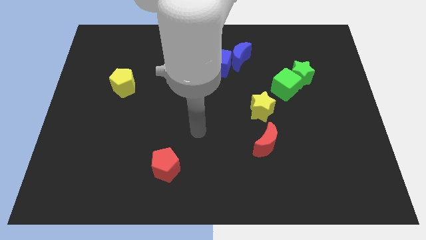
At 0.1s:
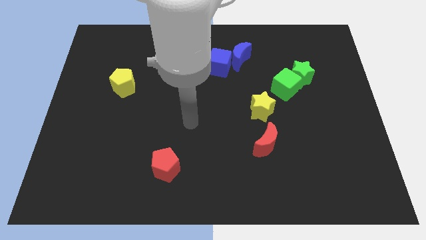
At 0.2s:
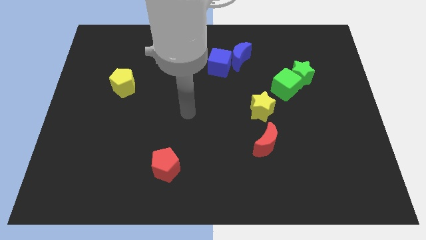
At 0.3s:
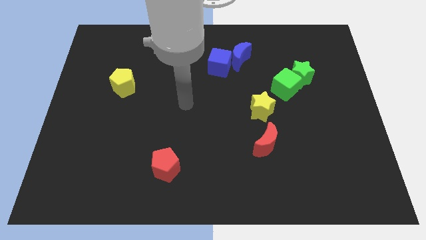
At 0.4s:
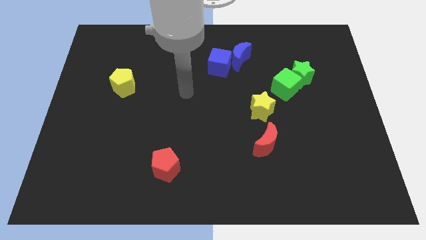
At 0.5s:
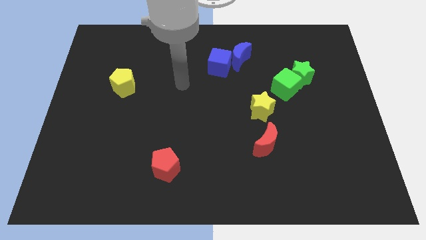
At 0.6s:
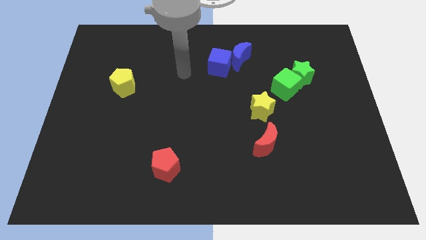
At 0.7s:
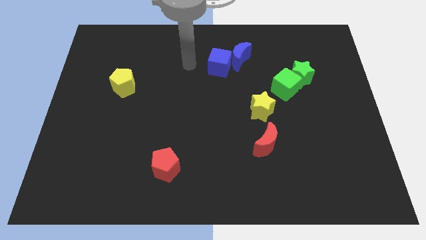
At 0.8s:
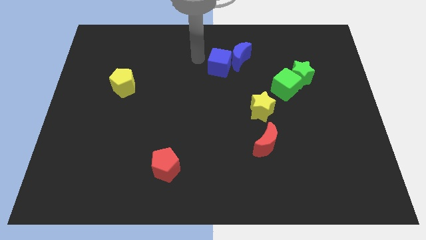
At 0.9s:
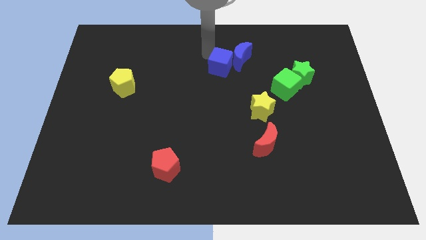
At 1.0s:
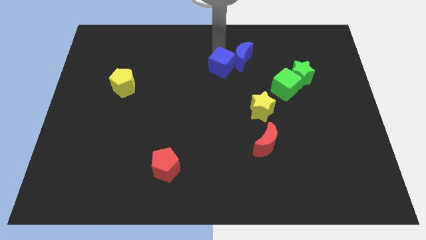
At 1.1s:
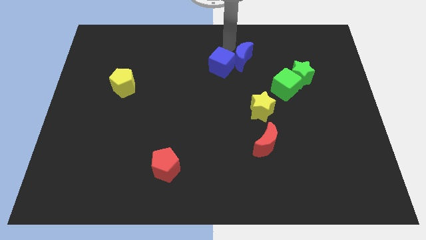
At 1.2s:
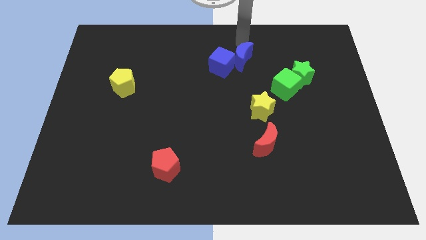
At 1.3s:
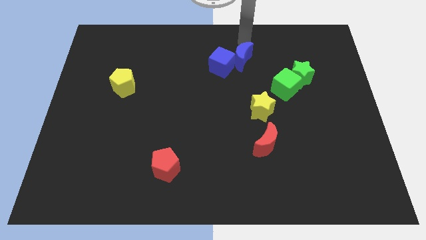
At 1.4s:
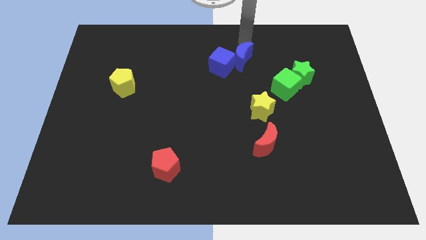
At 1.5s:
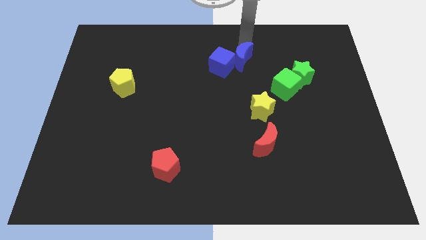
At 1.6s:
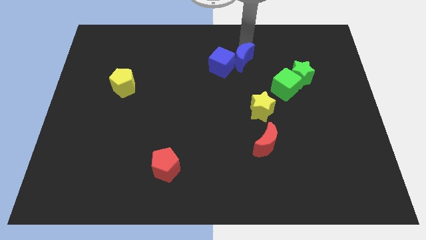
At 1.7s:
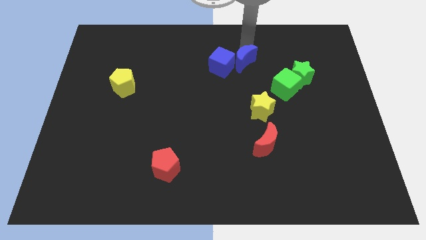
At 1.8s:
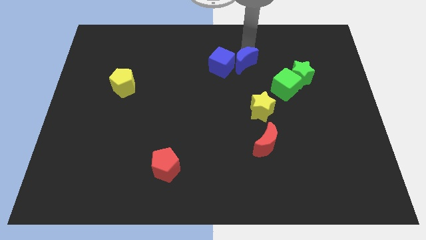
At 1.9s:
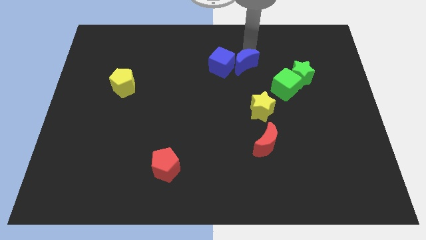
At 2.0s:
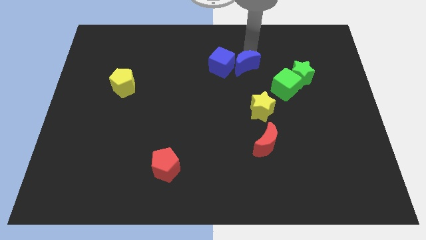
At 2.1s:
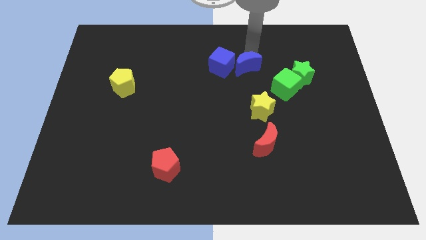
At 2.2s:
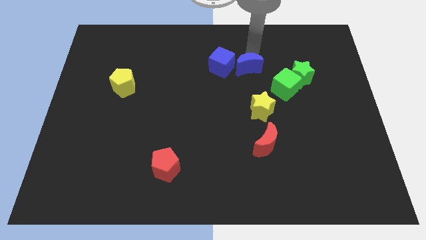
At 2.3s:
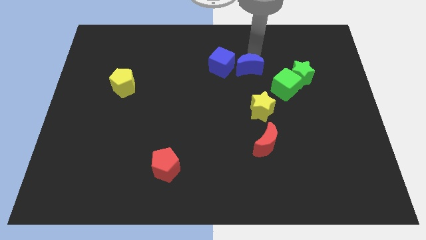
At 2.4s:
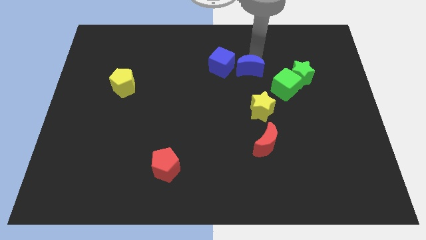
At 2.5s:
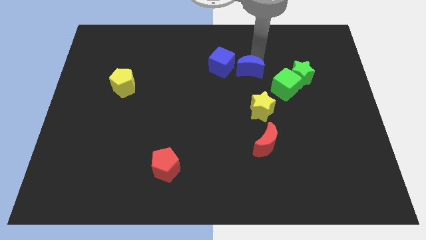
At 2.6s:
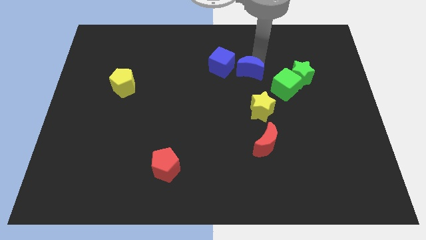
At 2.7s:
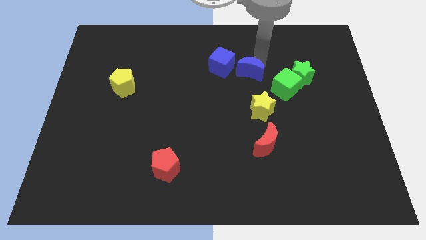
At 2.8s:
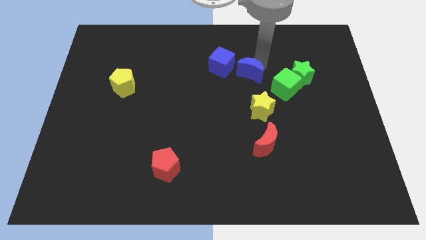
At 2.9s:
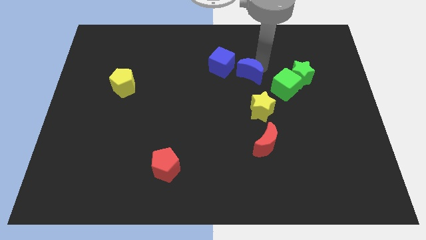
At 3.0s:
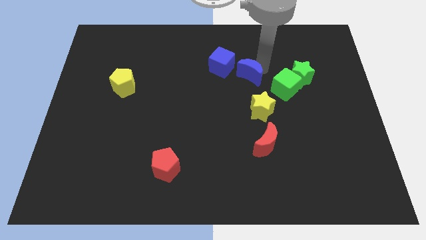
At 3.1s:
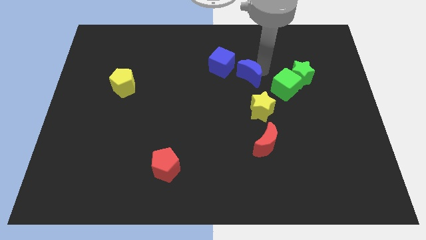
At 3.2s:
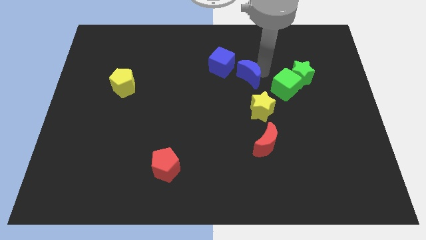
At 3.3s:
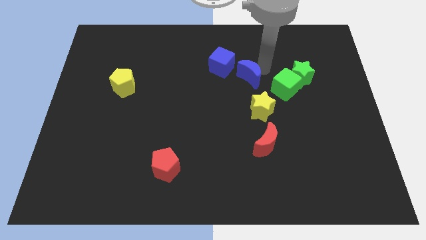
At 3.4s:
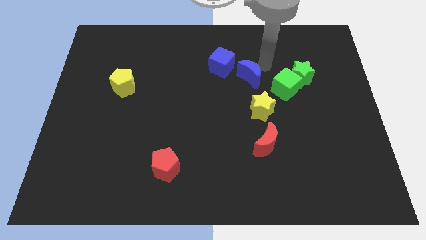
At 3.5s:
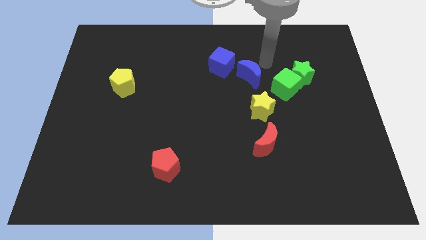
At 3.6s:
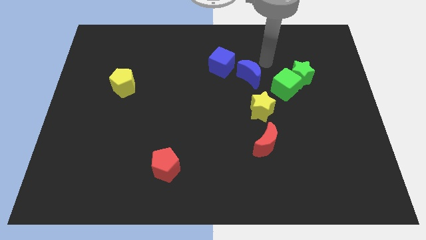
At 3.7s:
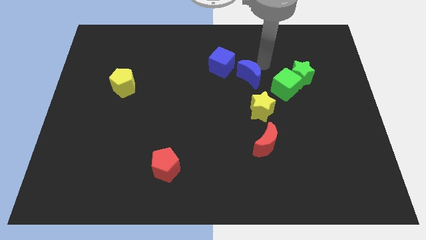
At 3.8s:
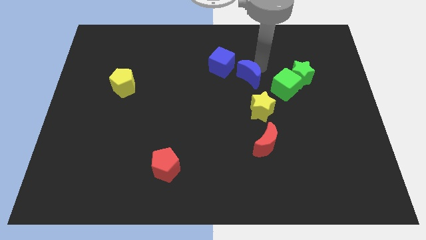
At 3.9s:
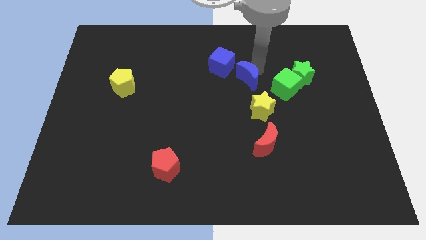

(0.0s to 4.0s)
move the blue moon downwards somewhat

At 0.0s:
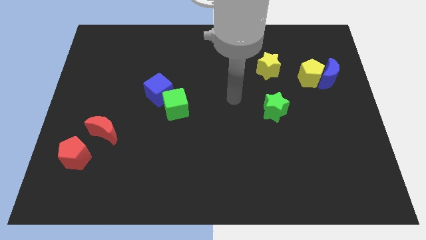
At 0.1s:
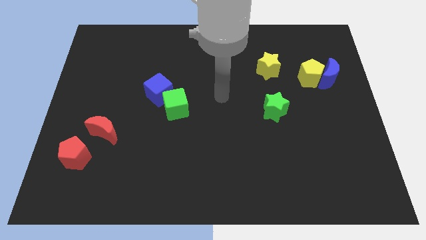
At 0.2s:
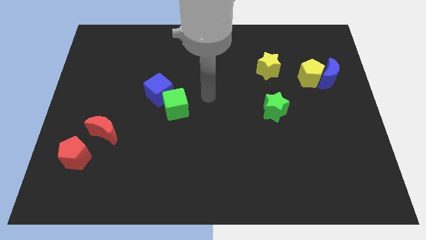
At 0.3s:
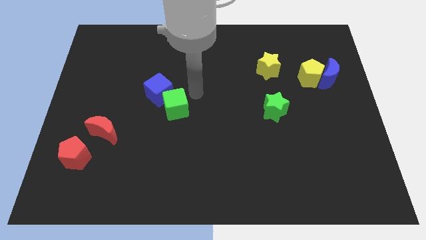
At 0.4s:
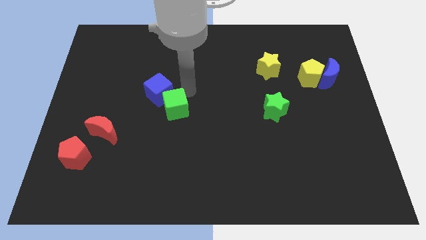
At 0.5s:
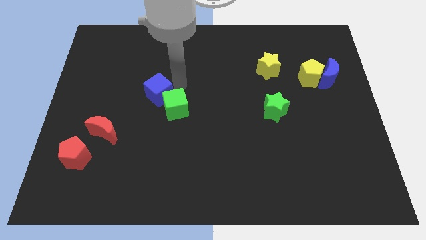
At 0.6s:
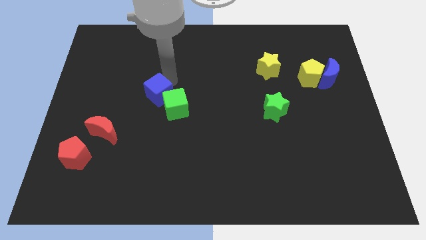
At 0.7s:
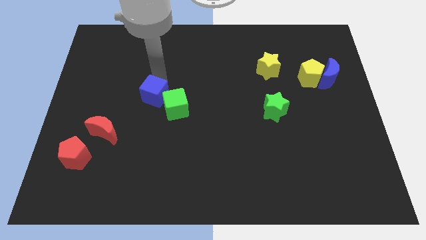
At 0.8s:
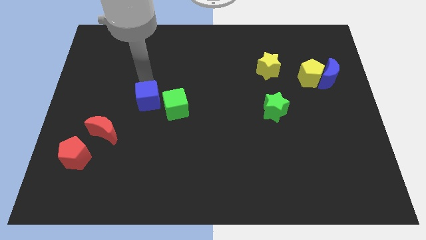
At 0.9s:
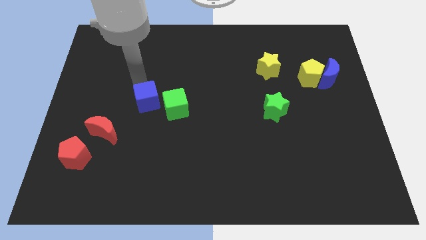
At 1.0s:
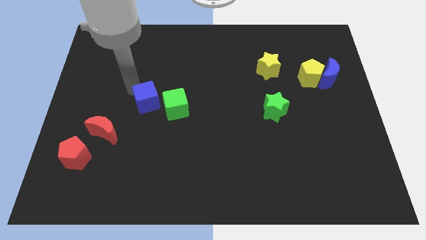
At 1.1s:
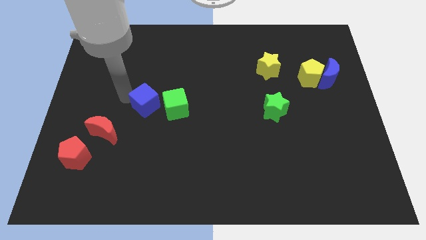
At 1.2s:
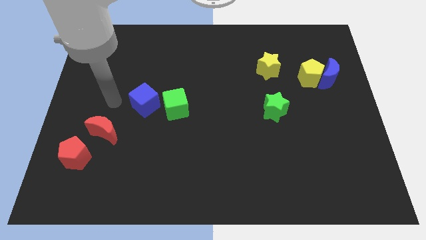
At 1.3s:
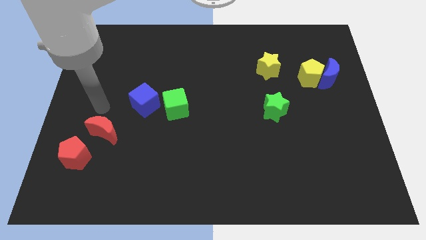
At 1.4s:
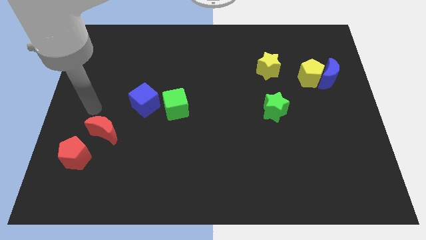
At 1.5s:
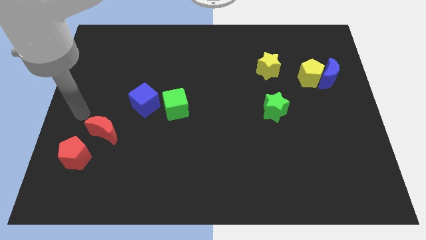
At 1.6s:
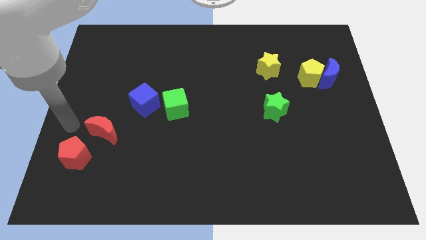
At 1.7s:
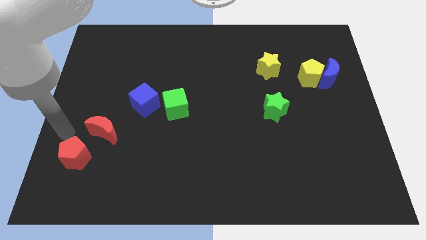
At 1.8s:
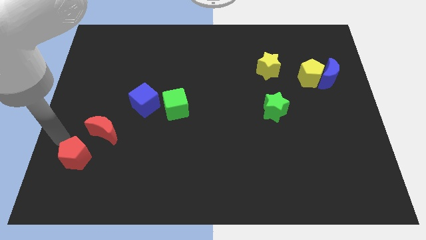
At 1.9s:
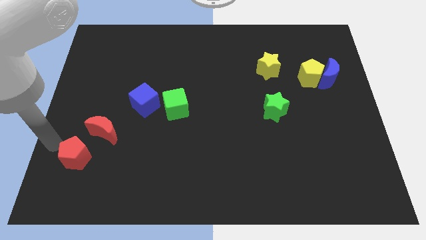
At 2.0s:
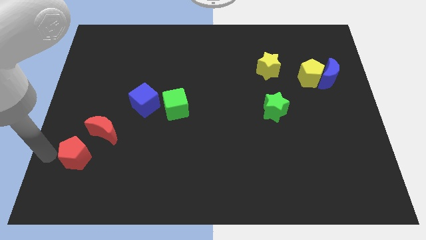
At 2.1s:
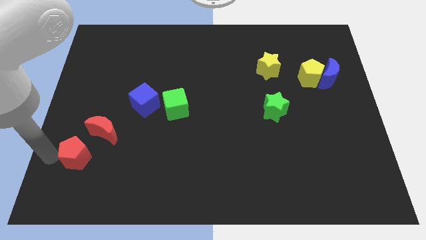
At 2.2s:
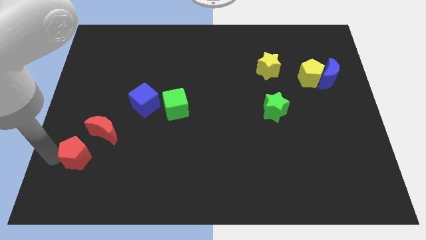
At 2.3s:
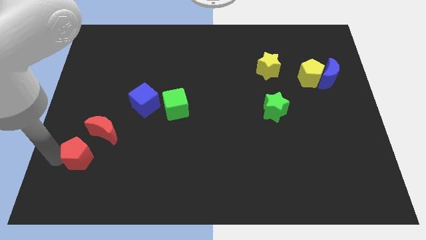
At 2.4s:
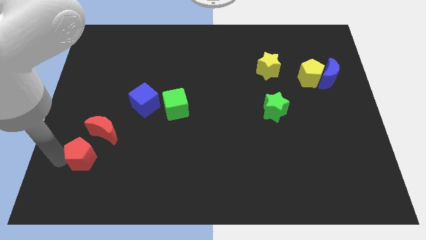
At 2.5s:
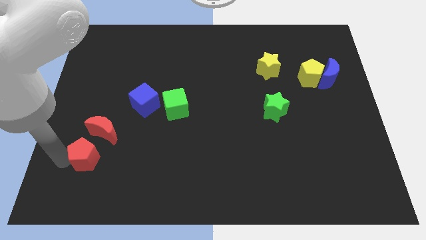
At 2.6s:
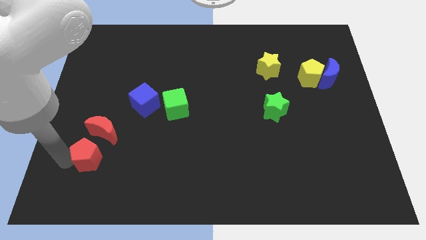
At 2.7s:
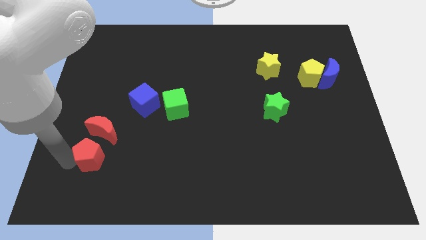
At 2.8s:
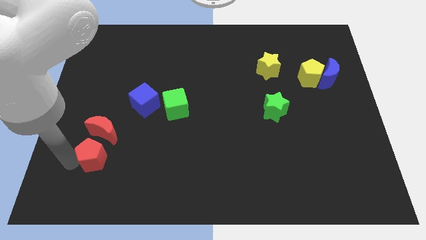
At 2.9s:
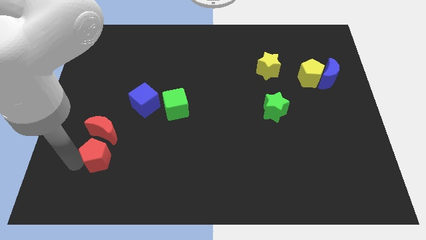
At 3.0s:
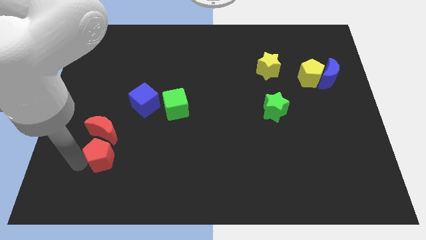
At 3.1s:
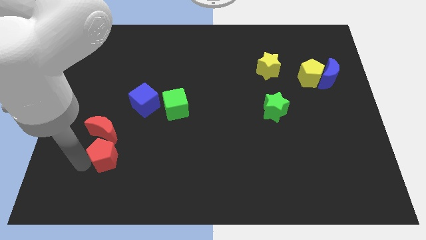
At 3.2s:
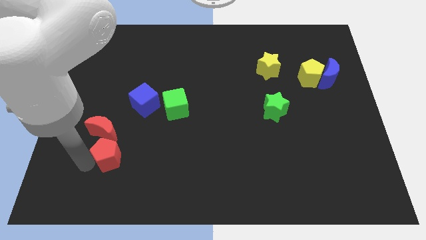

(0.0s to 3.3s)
slightly move the red pentagon to the right

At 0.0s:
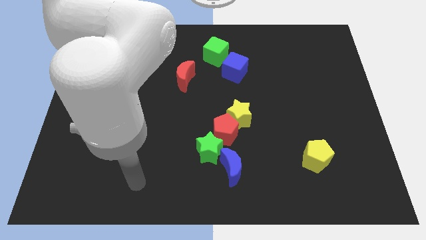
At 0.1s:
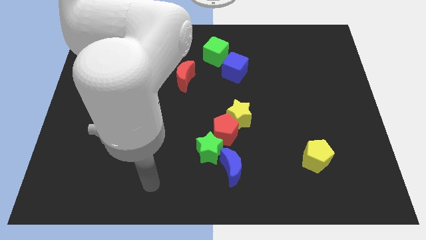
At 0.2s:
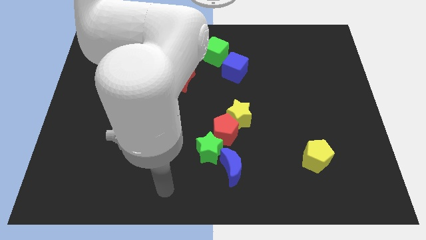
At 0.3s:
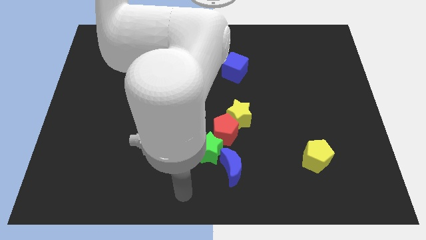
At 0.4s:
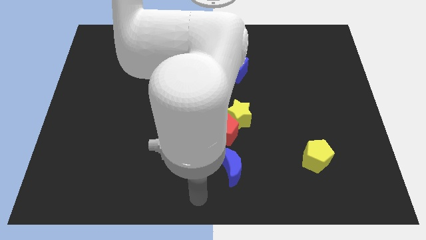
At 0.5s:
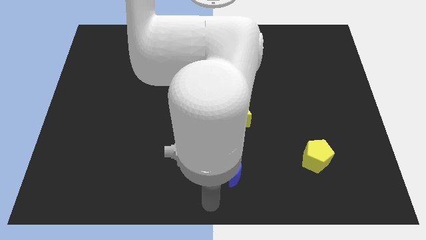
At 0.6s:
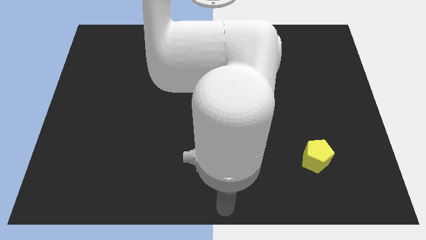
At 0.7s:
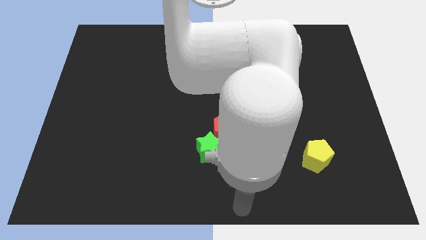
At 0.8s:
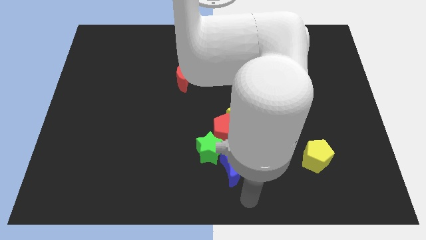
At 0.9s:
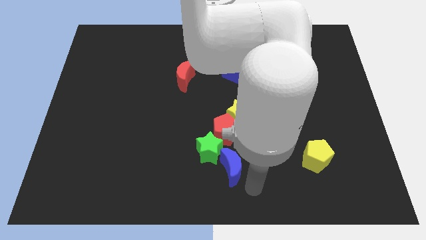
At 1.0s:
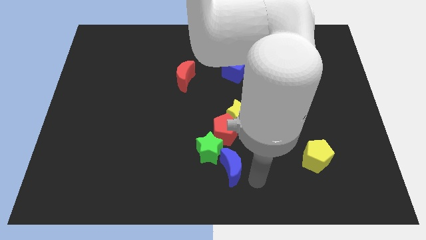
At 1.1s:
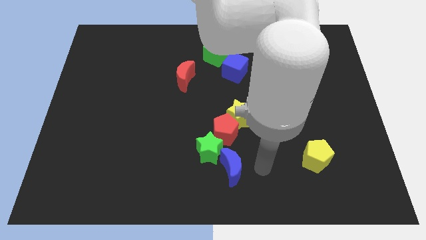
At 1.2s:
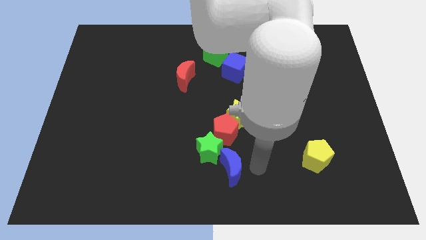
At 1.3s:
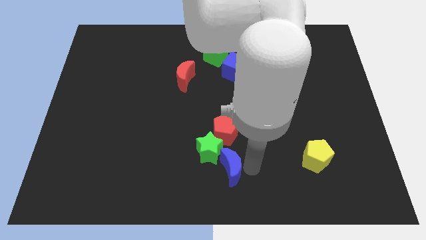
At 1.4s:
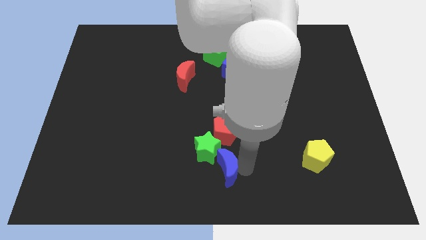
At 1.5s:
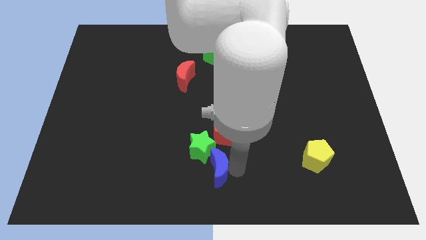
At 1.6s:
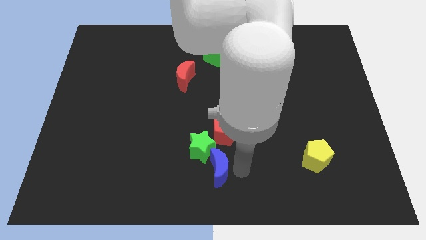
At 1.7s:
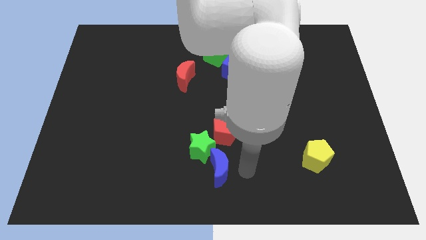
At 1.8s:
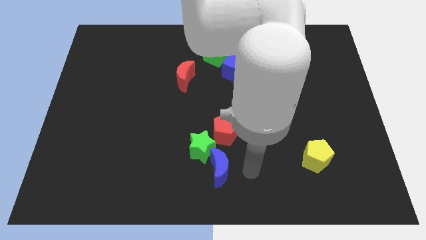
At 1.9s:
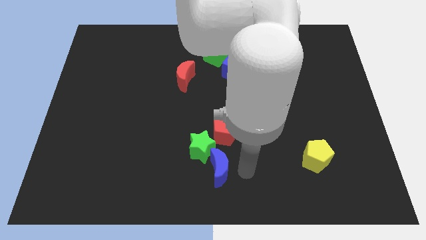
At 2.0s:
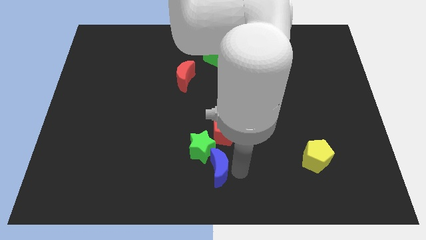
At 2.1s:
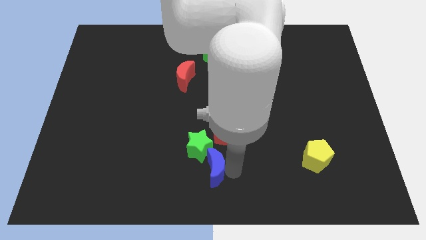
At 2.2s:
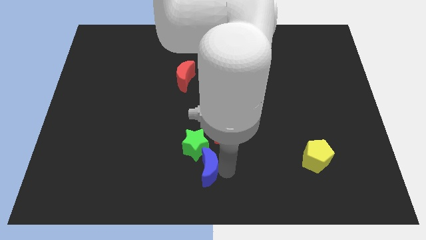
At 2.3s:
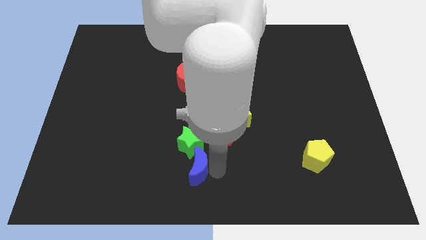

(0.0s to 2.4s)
move the blue moon left slightly
